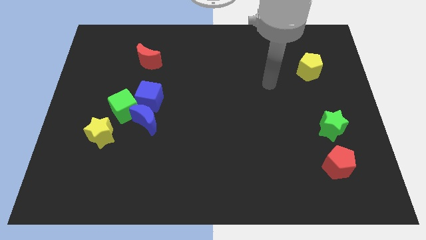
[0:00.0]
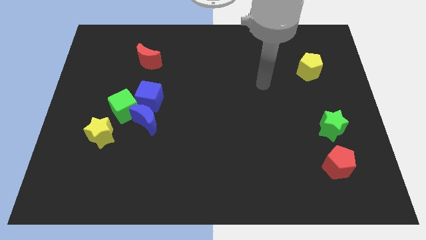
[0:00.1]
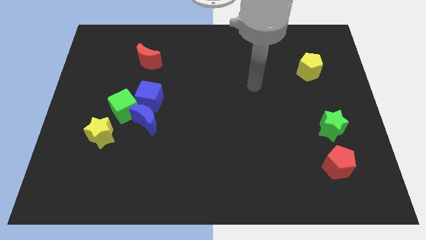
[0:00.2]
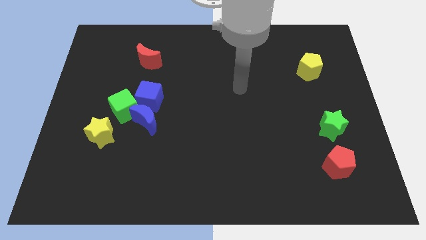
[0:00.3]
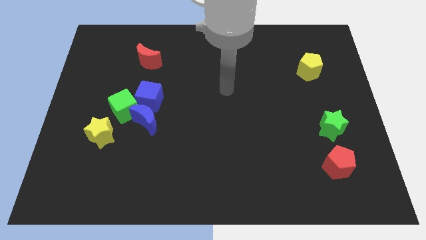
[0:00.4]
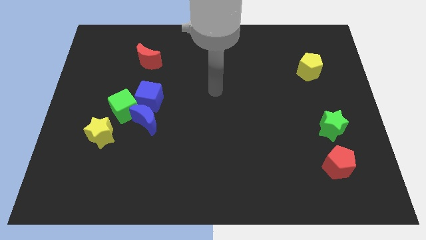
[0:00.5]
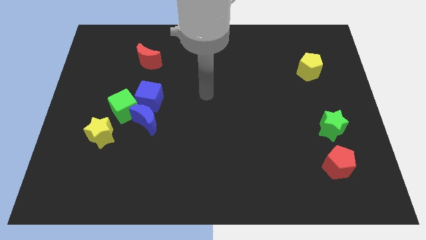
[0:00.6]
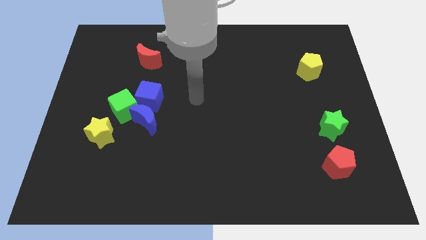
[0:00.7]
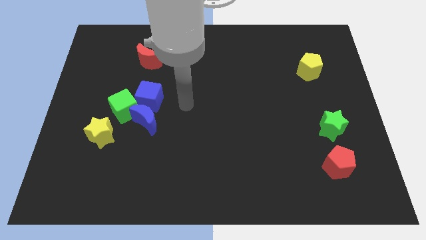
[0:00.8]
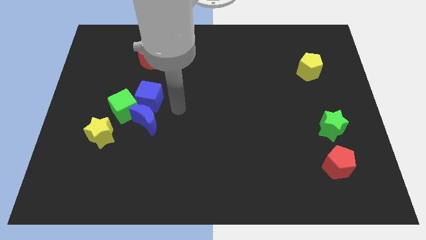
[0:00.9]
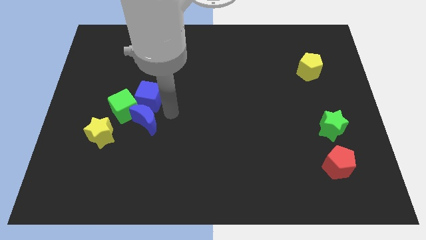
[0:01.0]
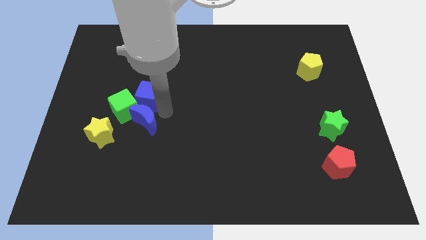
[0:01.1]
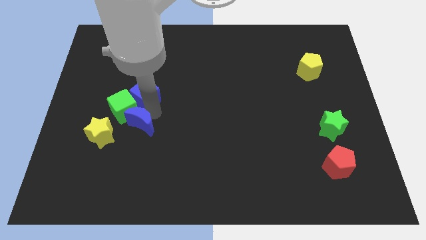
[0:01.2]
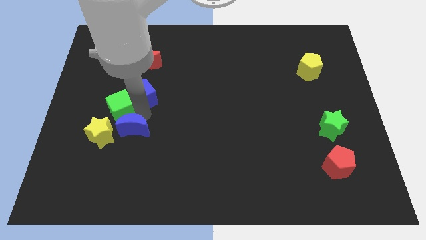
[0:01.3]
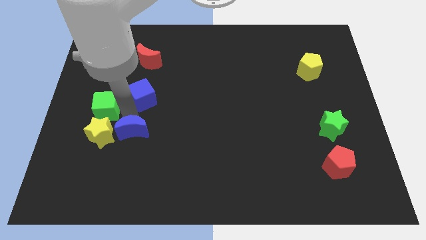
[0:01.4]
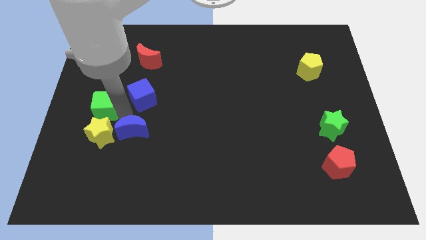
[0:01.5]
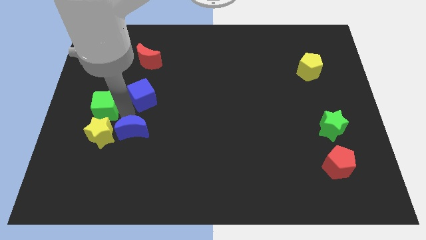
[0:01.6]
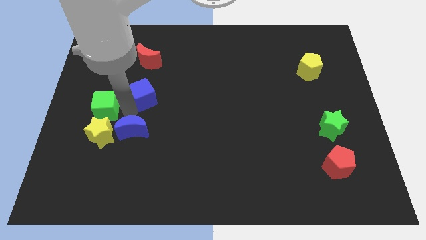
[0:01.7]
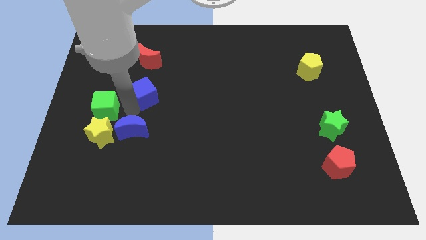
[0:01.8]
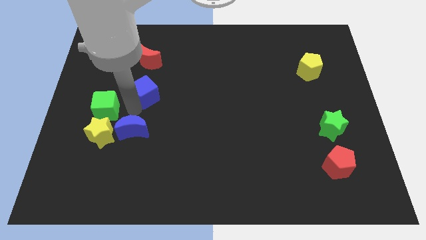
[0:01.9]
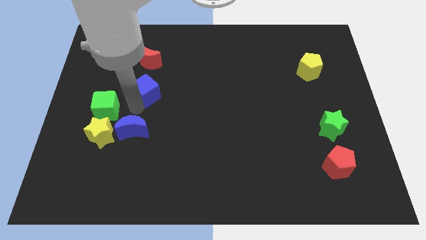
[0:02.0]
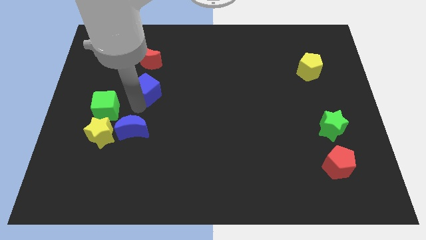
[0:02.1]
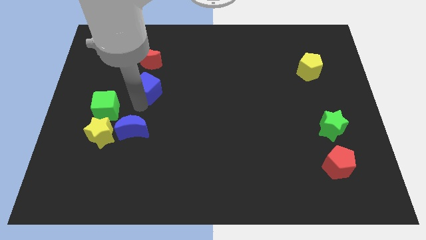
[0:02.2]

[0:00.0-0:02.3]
pull the blue cube apart from the blue moon and green cube

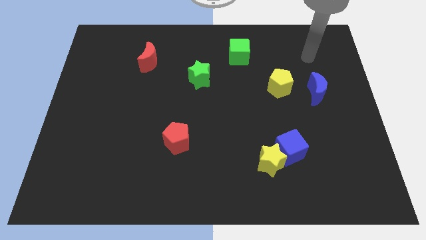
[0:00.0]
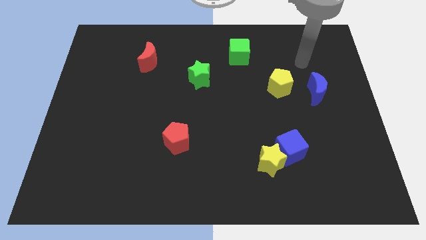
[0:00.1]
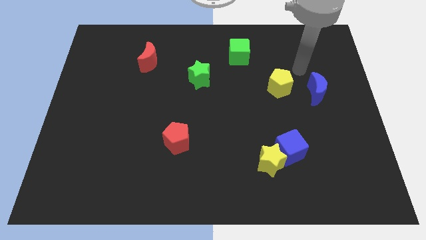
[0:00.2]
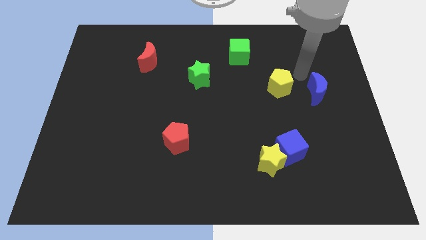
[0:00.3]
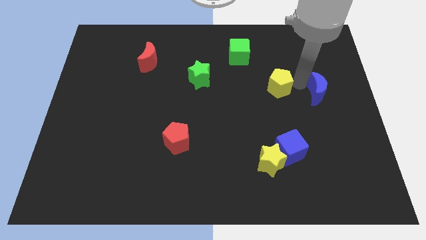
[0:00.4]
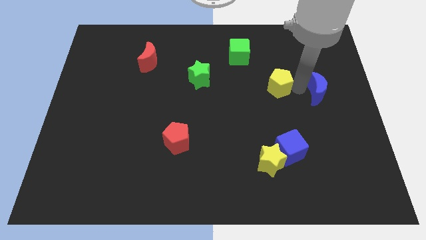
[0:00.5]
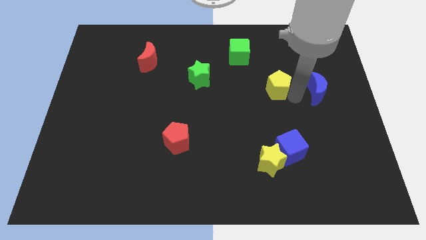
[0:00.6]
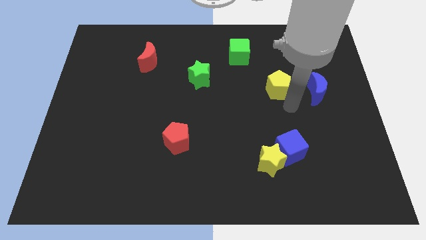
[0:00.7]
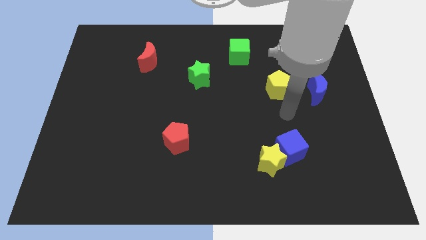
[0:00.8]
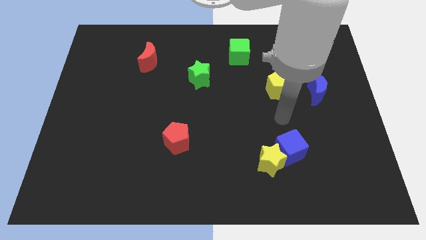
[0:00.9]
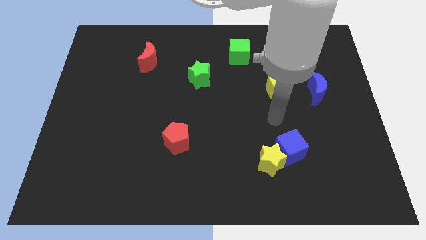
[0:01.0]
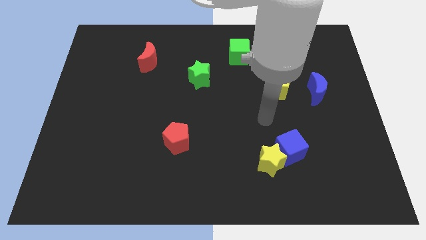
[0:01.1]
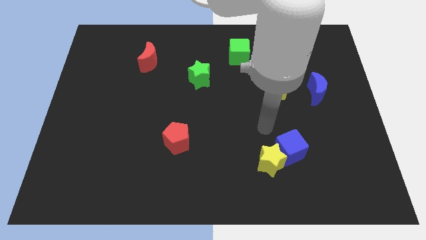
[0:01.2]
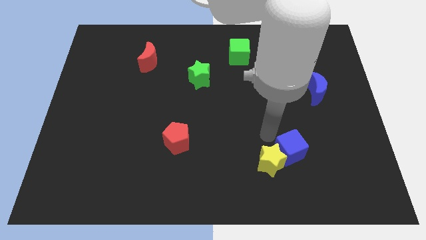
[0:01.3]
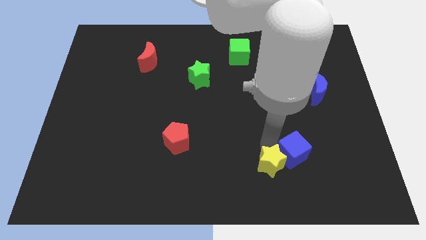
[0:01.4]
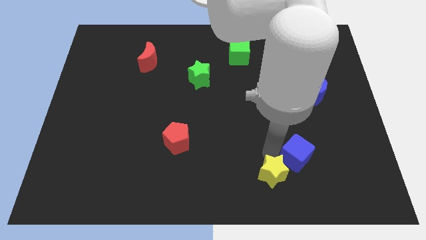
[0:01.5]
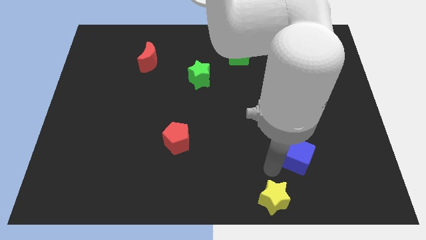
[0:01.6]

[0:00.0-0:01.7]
separate the blue cube from the yellow star

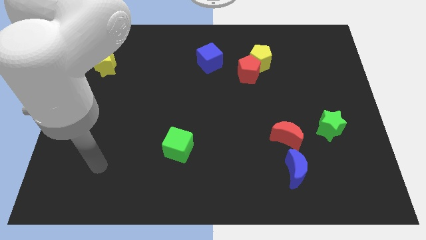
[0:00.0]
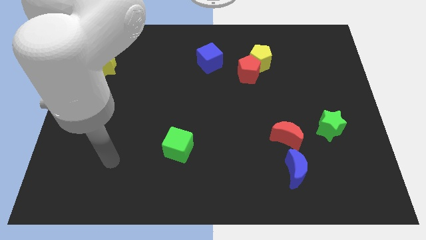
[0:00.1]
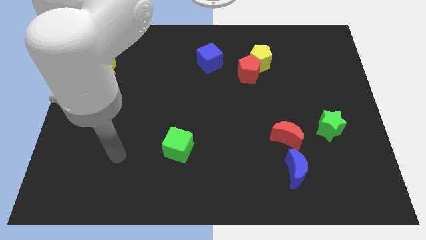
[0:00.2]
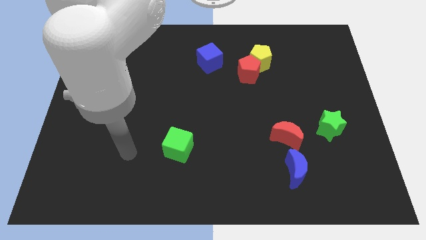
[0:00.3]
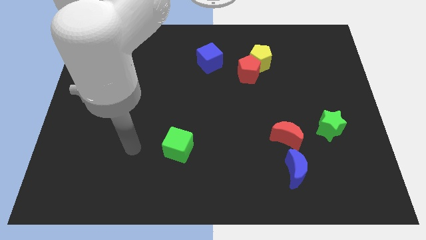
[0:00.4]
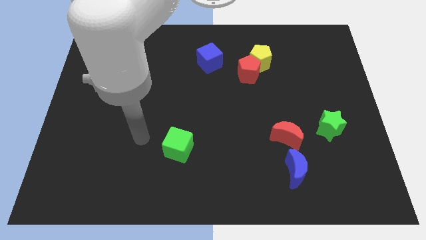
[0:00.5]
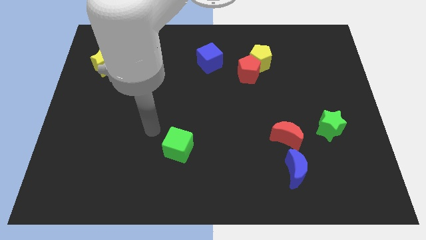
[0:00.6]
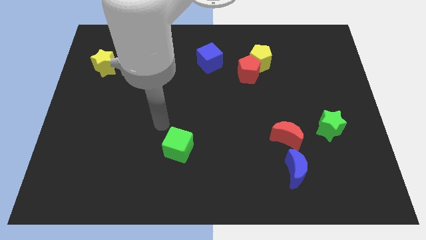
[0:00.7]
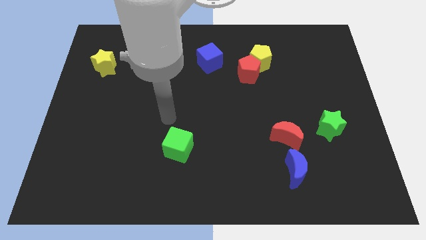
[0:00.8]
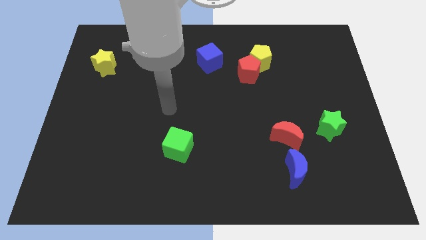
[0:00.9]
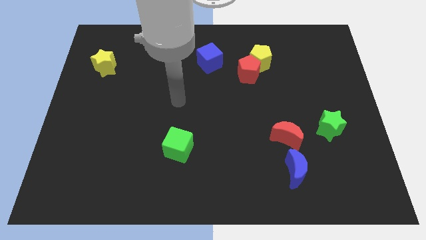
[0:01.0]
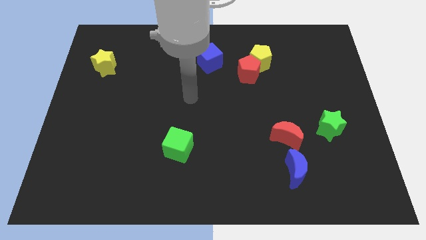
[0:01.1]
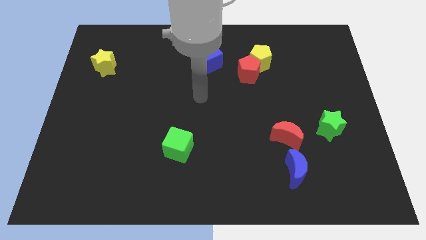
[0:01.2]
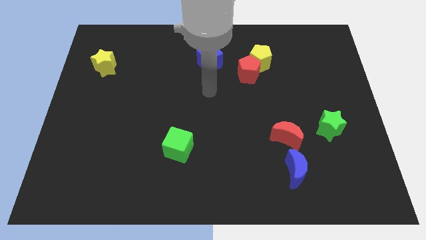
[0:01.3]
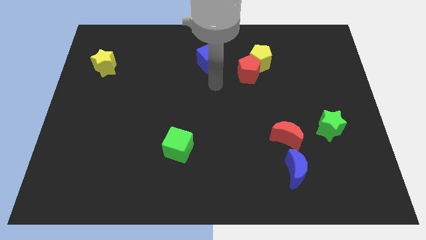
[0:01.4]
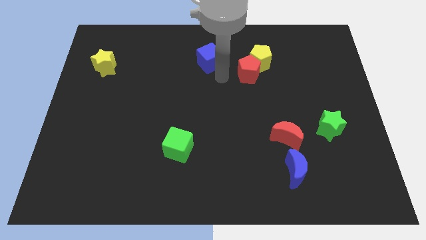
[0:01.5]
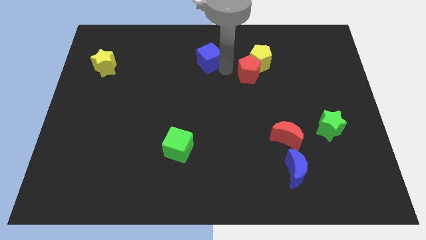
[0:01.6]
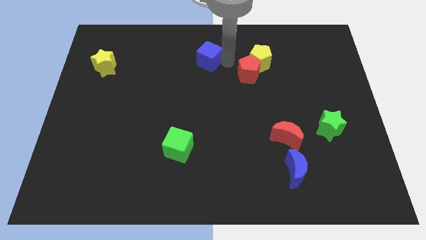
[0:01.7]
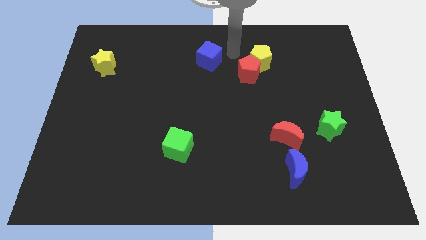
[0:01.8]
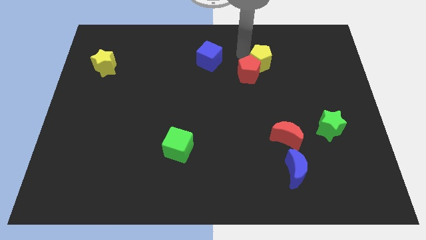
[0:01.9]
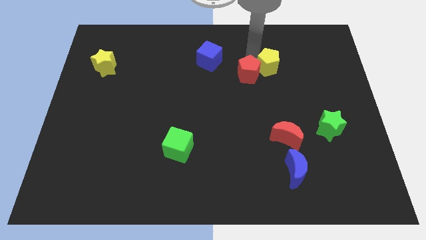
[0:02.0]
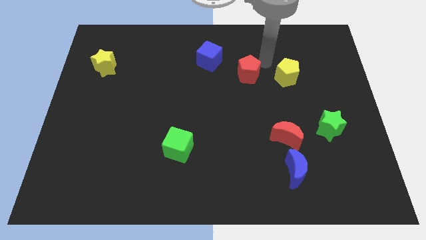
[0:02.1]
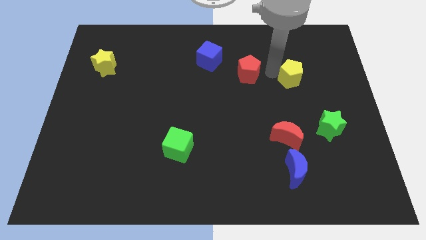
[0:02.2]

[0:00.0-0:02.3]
separate the red pentagon from the yellow pentagon

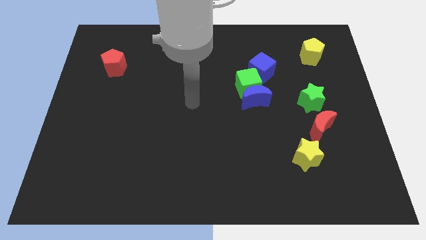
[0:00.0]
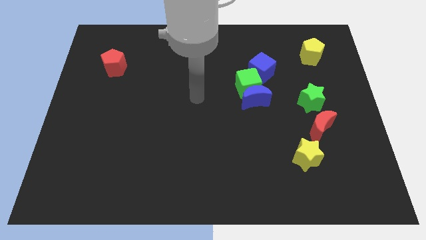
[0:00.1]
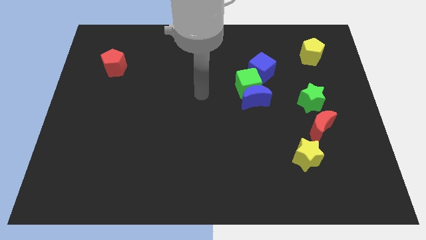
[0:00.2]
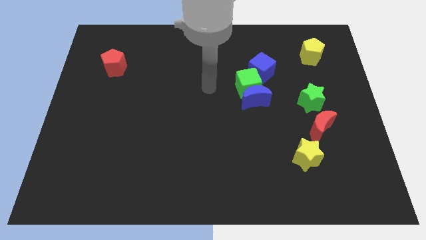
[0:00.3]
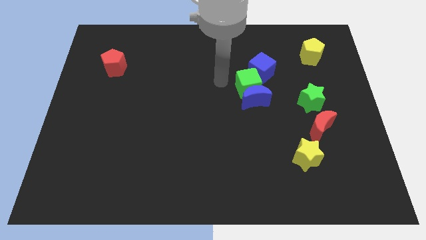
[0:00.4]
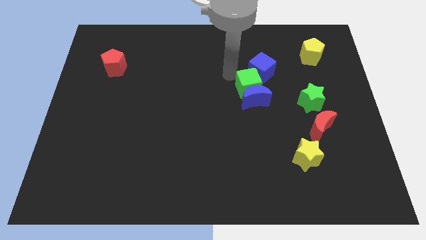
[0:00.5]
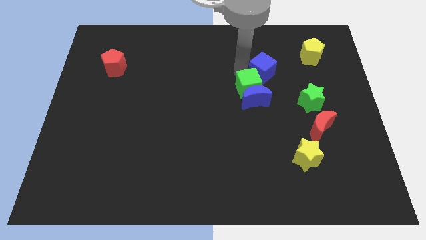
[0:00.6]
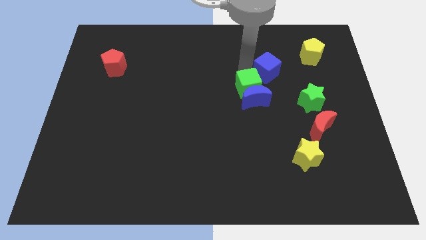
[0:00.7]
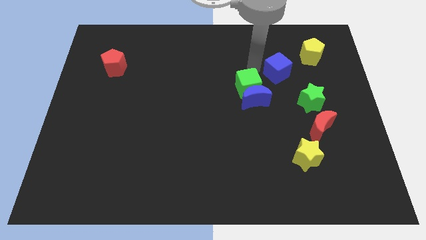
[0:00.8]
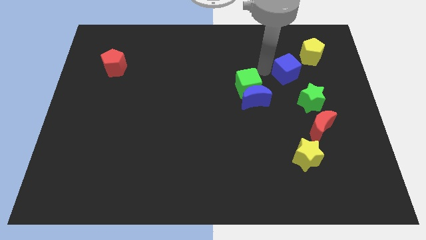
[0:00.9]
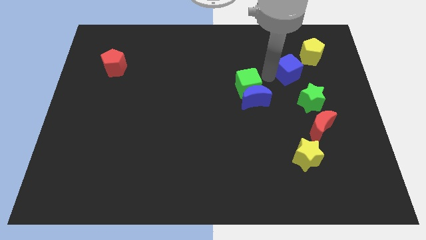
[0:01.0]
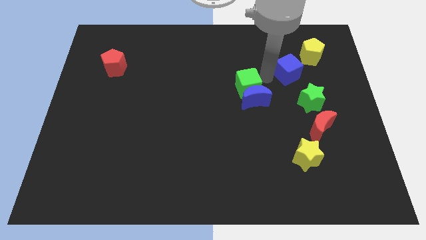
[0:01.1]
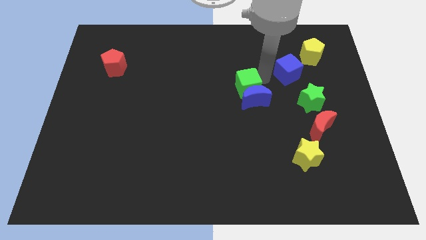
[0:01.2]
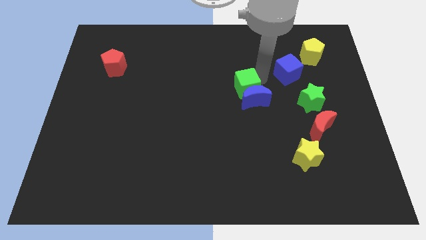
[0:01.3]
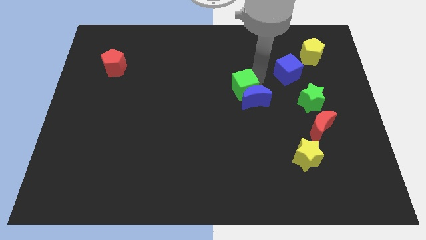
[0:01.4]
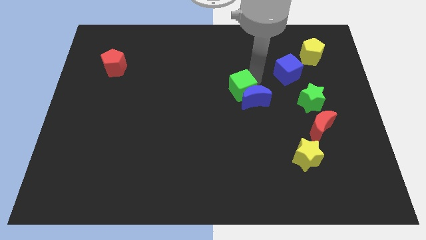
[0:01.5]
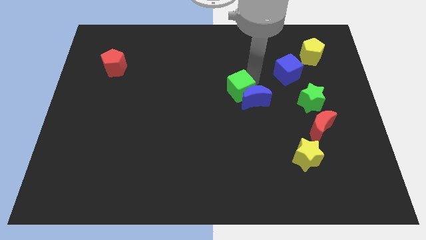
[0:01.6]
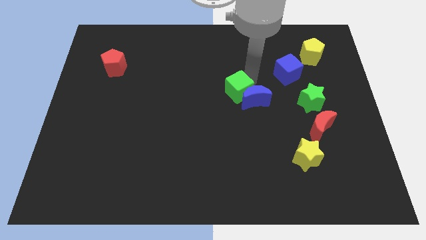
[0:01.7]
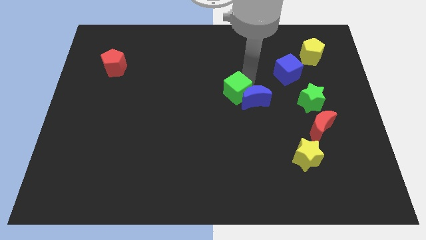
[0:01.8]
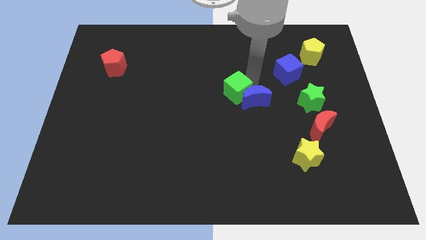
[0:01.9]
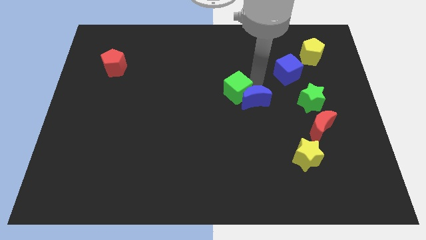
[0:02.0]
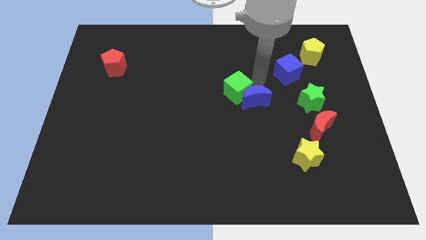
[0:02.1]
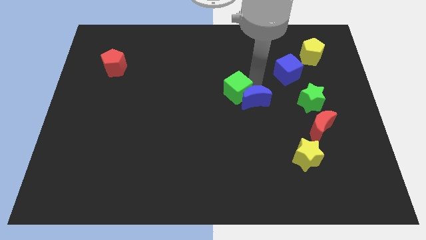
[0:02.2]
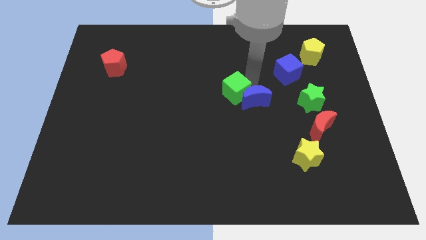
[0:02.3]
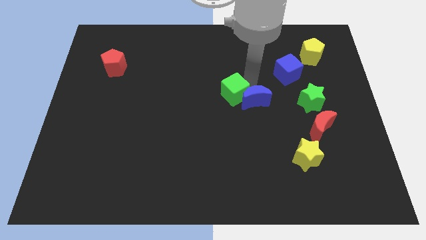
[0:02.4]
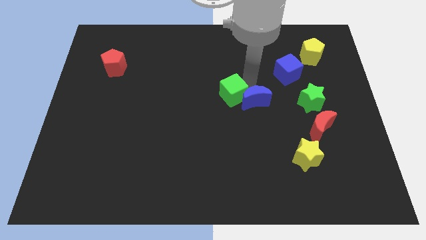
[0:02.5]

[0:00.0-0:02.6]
move the green cube away from the blue moon and blue cube

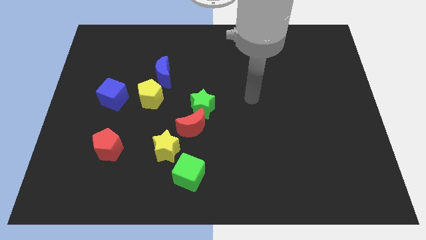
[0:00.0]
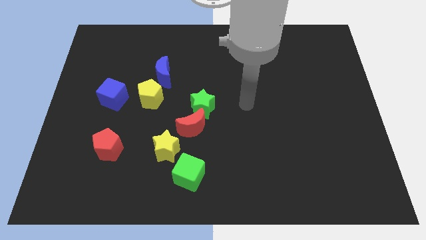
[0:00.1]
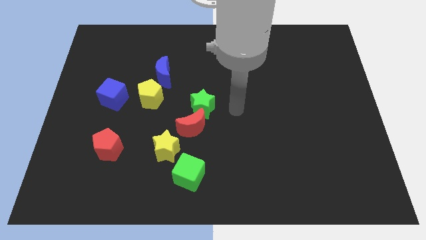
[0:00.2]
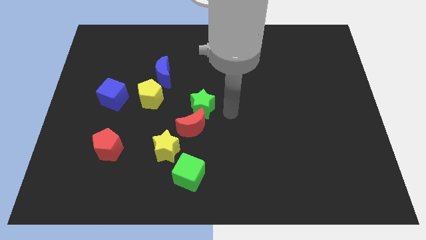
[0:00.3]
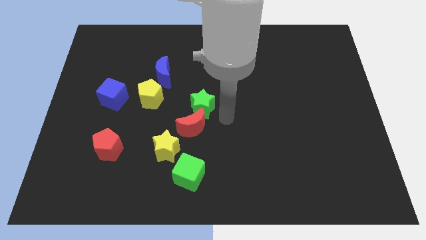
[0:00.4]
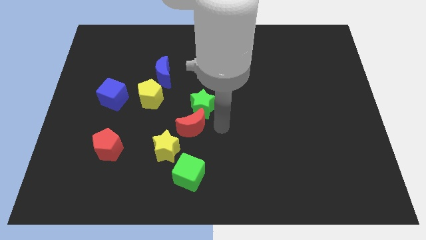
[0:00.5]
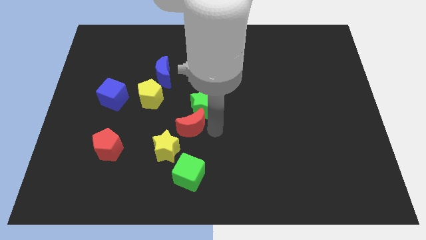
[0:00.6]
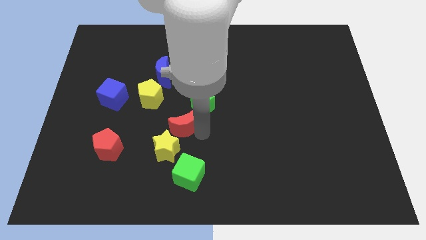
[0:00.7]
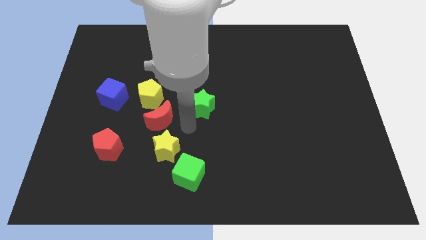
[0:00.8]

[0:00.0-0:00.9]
separate the green star from the red moon
